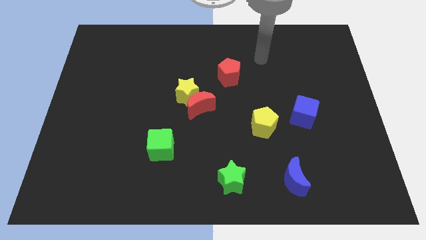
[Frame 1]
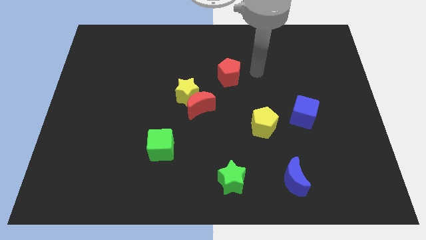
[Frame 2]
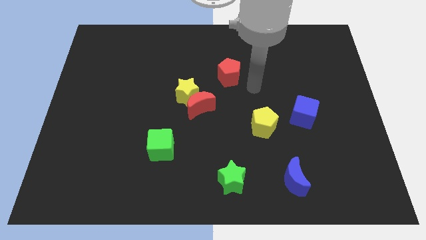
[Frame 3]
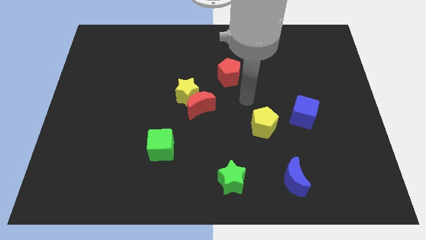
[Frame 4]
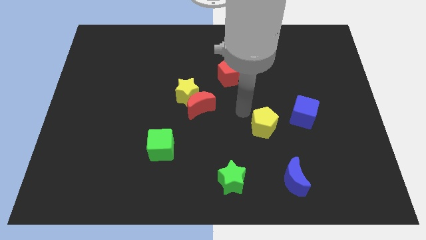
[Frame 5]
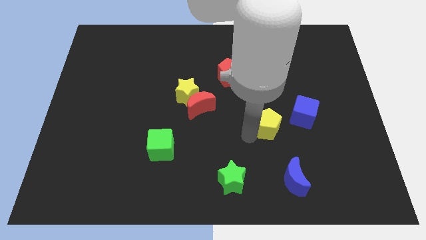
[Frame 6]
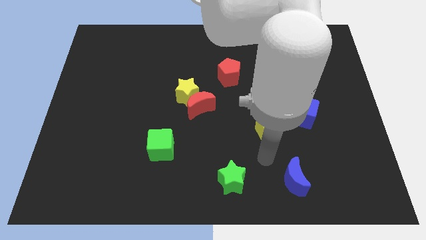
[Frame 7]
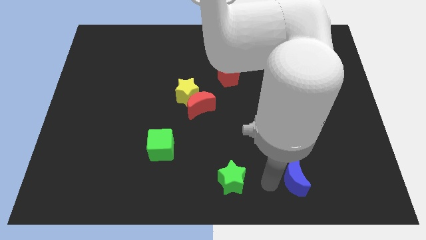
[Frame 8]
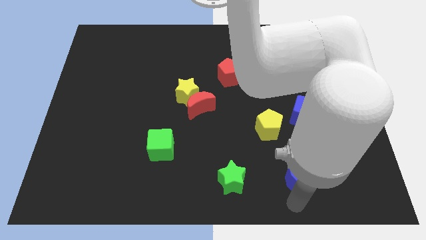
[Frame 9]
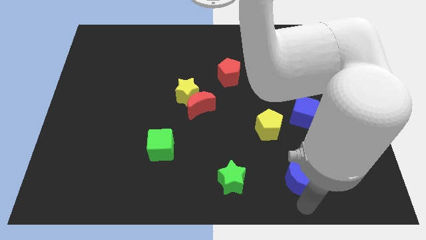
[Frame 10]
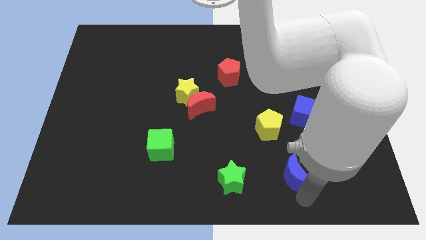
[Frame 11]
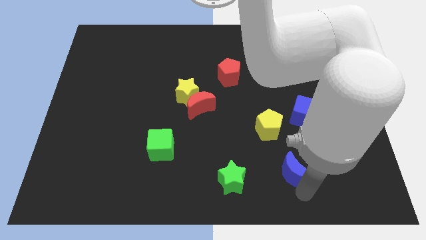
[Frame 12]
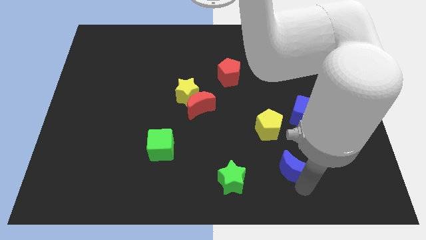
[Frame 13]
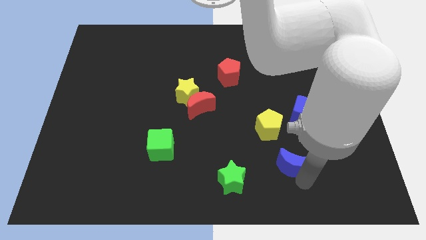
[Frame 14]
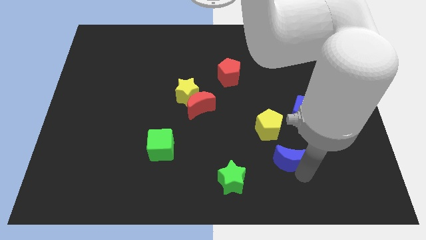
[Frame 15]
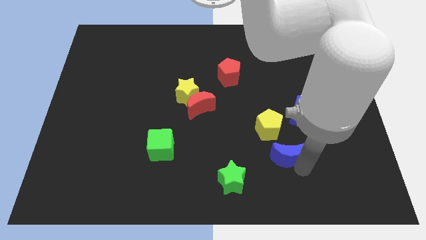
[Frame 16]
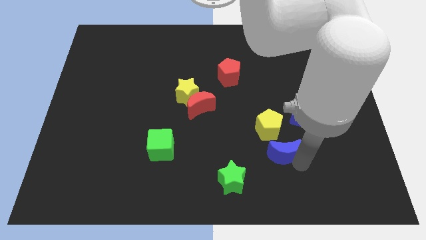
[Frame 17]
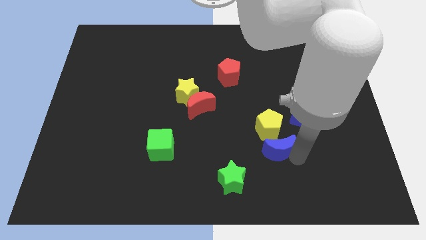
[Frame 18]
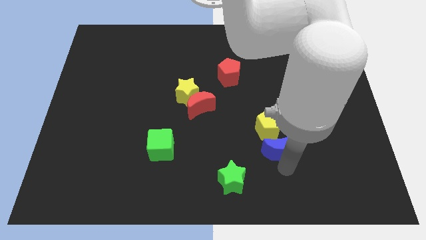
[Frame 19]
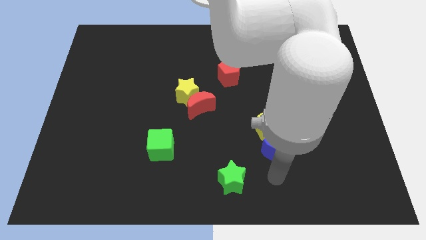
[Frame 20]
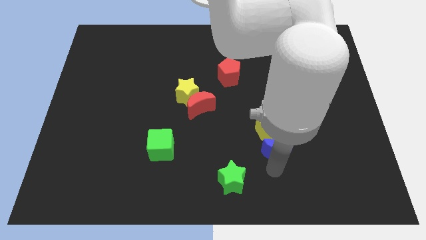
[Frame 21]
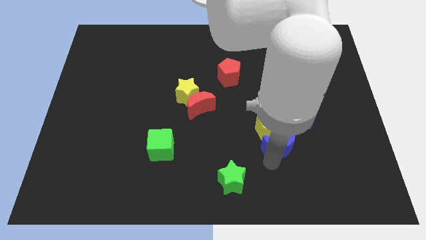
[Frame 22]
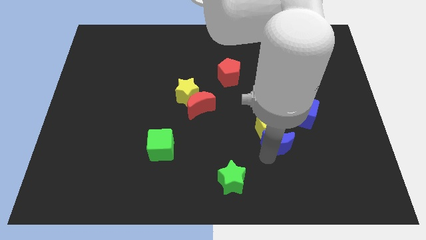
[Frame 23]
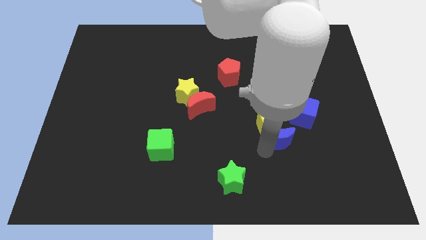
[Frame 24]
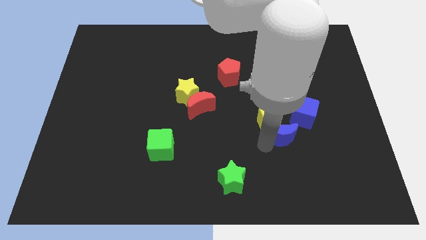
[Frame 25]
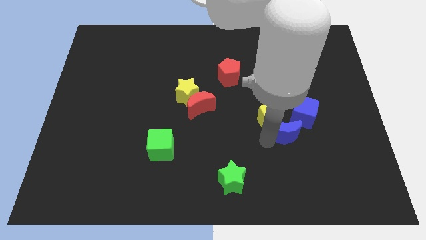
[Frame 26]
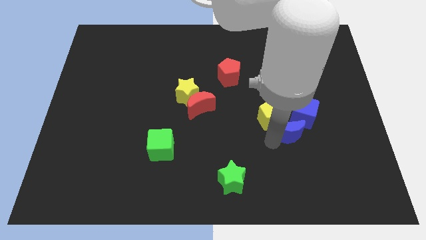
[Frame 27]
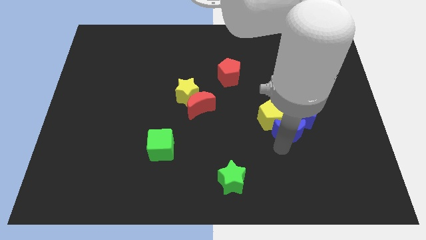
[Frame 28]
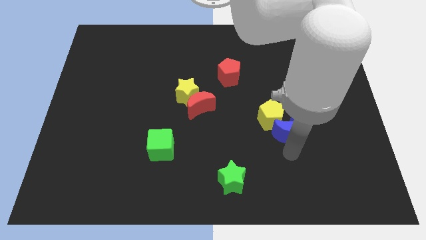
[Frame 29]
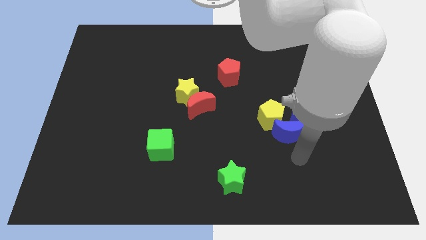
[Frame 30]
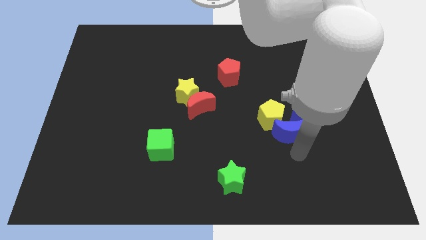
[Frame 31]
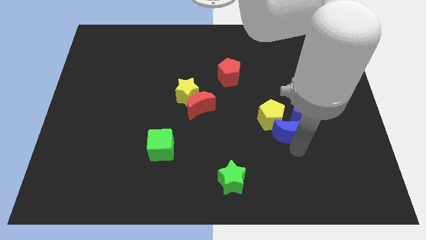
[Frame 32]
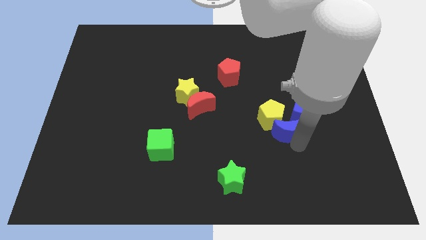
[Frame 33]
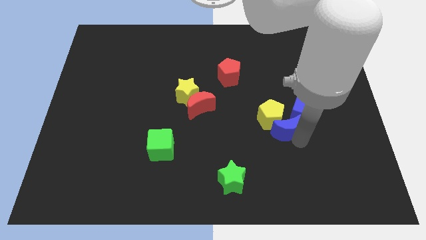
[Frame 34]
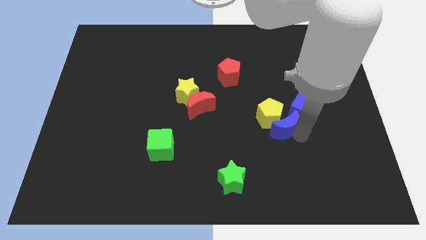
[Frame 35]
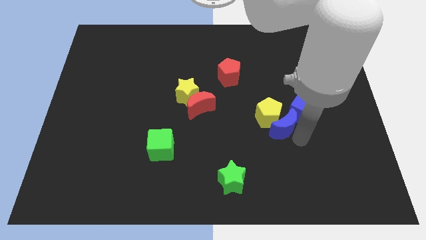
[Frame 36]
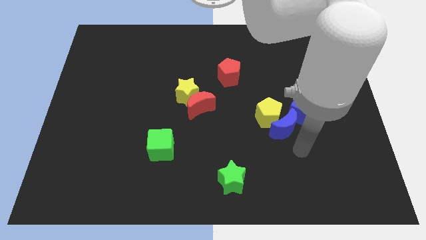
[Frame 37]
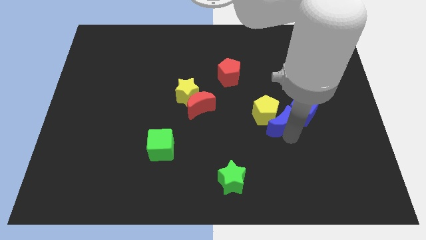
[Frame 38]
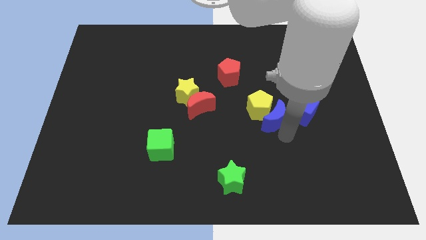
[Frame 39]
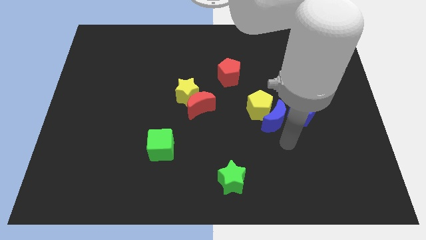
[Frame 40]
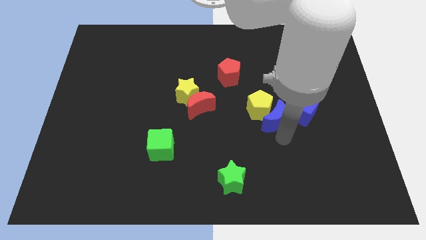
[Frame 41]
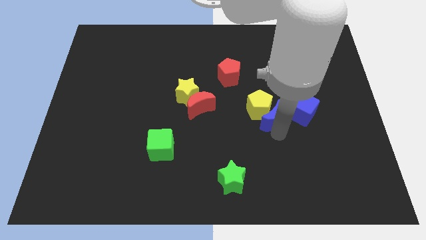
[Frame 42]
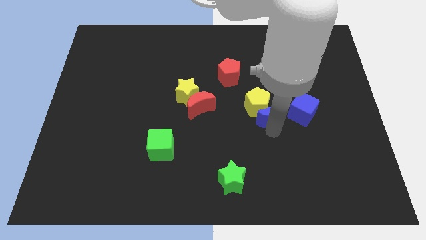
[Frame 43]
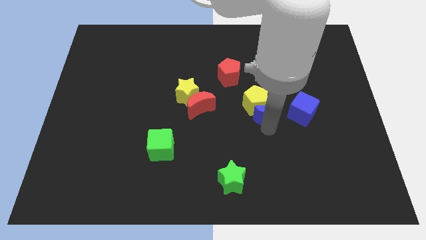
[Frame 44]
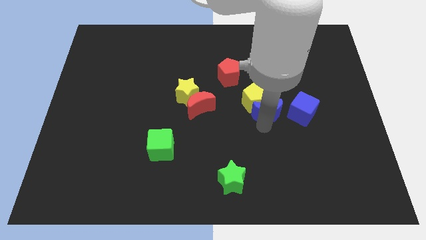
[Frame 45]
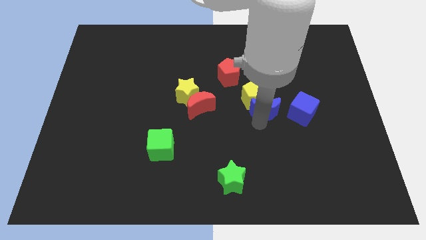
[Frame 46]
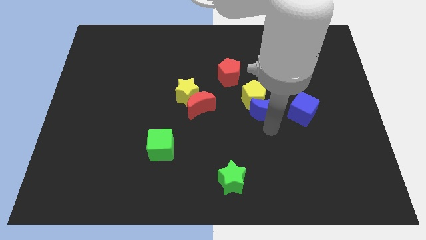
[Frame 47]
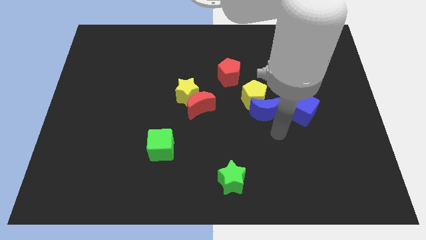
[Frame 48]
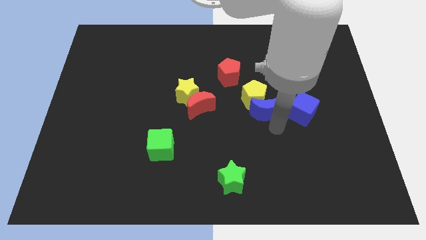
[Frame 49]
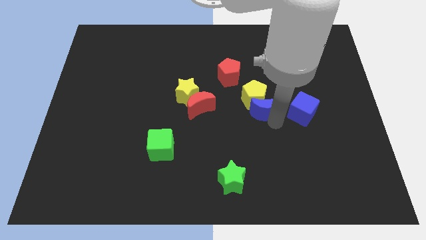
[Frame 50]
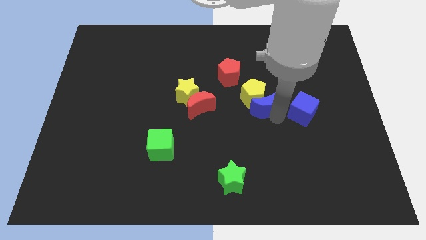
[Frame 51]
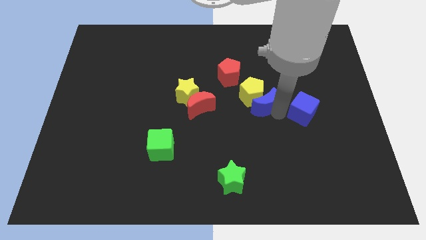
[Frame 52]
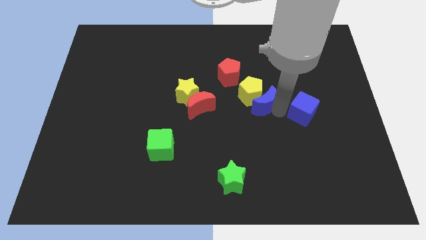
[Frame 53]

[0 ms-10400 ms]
move the blue moon diagonally down and to the right of the red pentagon

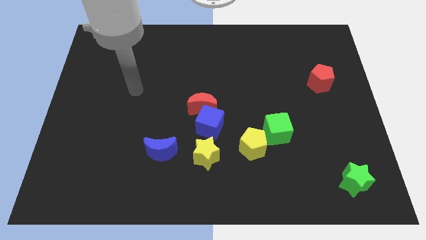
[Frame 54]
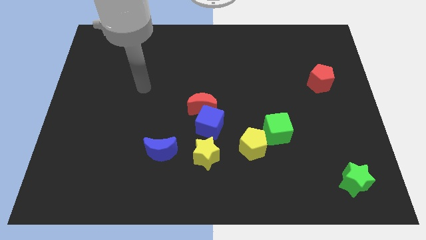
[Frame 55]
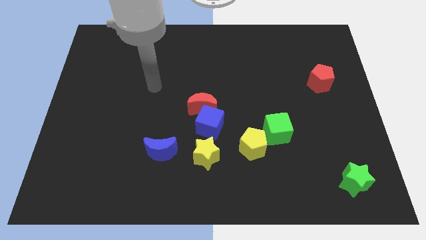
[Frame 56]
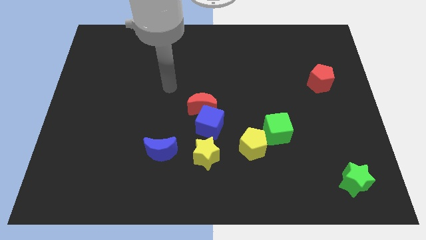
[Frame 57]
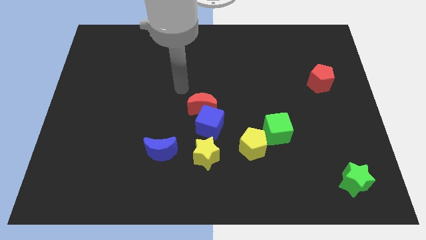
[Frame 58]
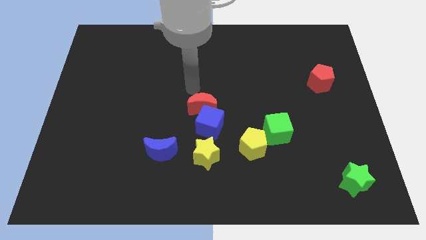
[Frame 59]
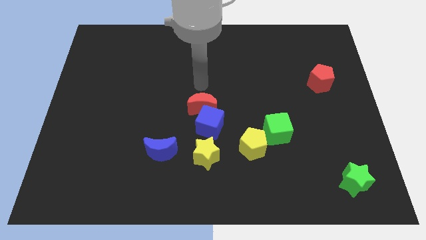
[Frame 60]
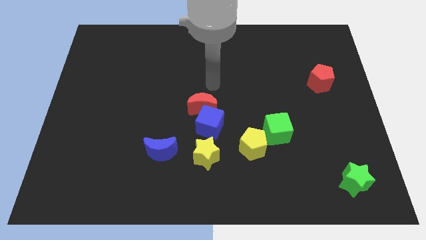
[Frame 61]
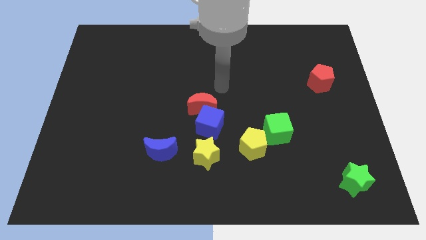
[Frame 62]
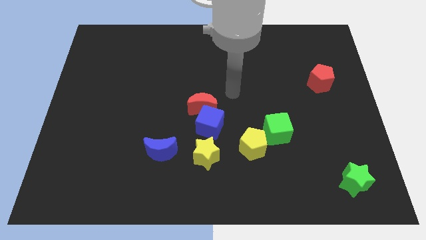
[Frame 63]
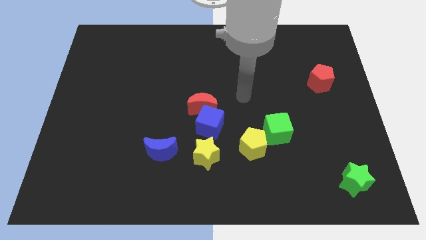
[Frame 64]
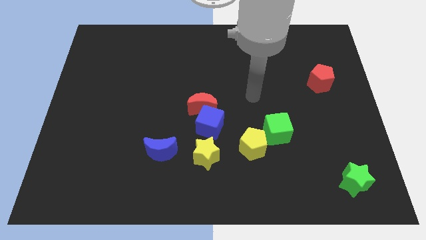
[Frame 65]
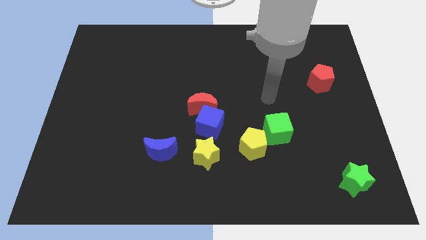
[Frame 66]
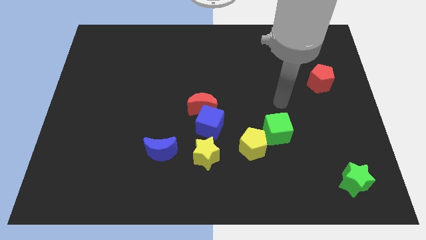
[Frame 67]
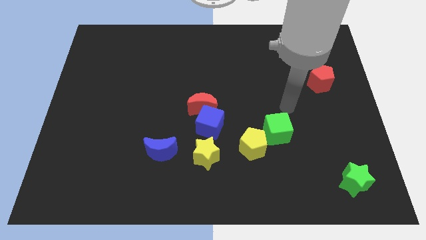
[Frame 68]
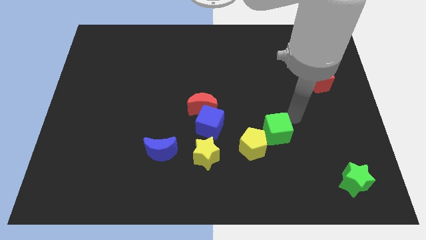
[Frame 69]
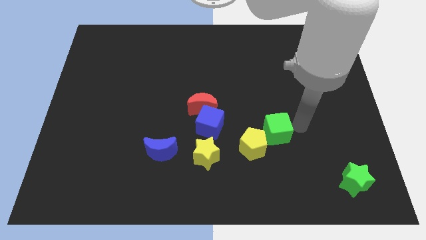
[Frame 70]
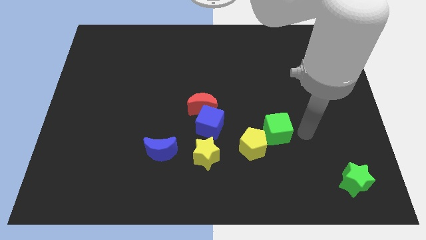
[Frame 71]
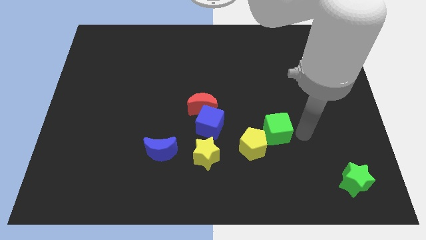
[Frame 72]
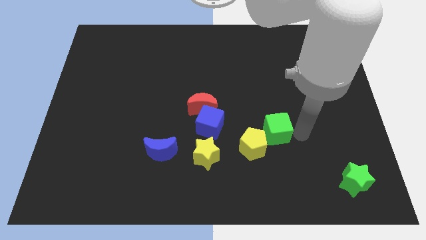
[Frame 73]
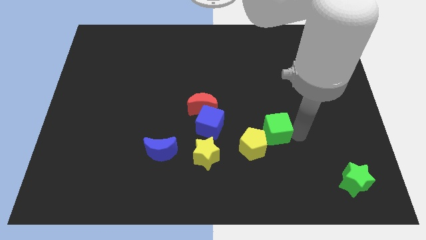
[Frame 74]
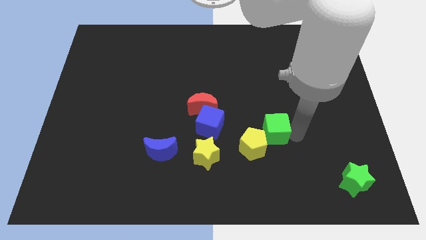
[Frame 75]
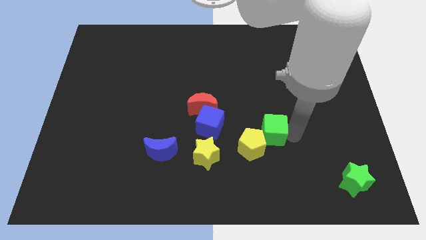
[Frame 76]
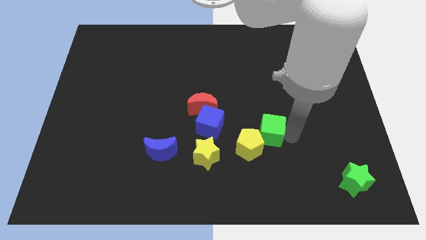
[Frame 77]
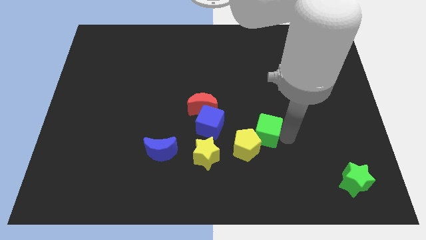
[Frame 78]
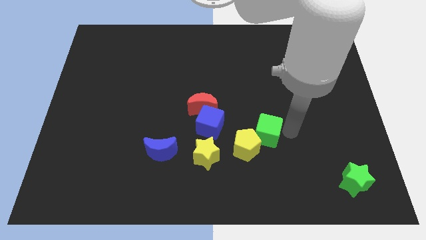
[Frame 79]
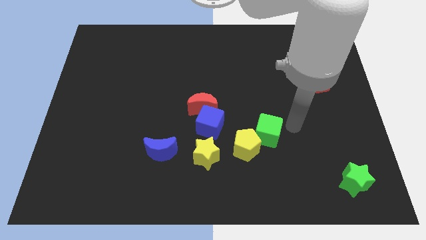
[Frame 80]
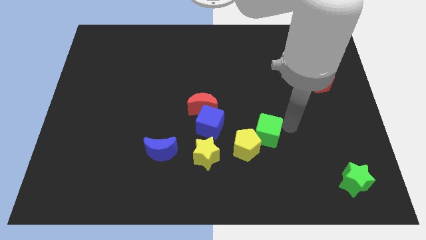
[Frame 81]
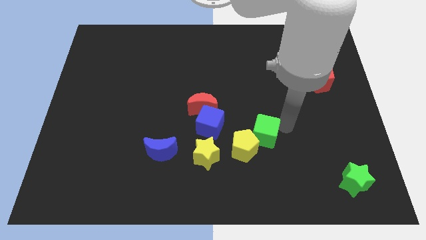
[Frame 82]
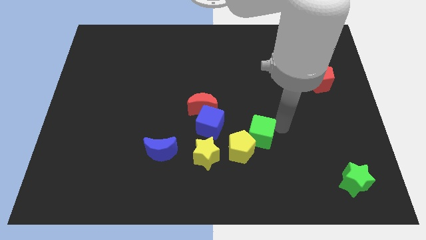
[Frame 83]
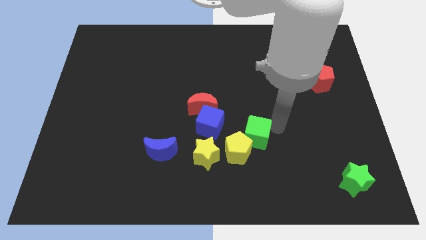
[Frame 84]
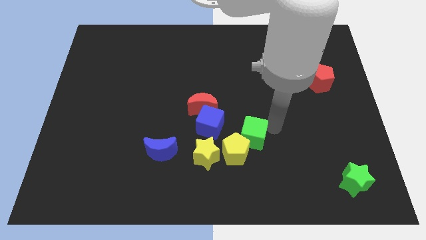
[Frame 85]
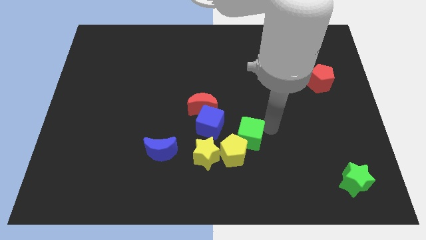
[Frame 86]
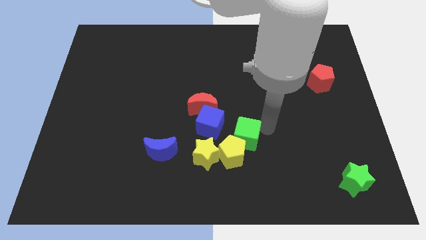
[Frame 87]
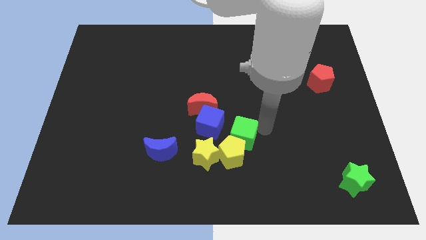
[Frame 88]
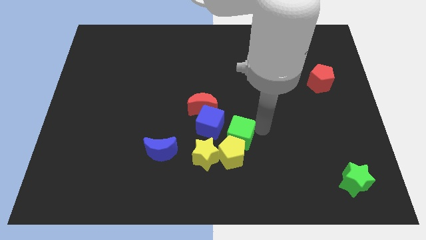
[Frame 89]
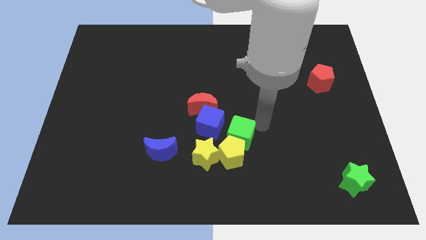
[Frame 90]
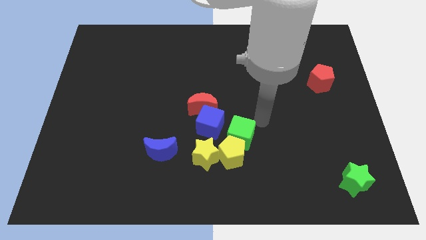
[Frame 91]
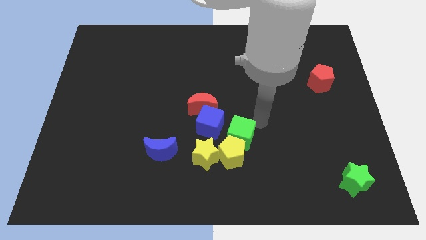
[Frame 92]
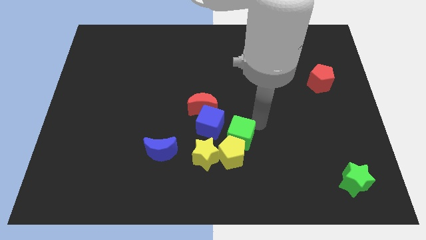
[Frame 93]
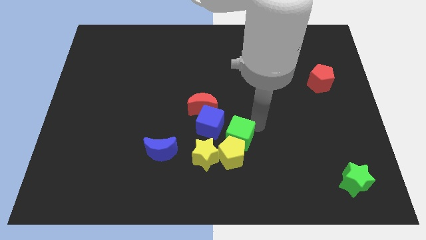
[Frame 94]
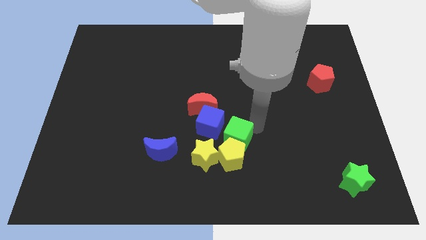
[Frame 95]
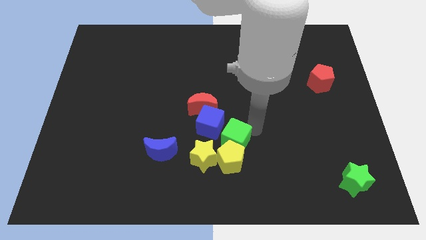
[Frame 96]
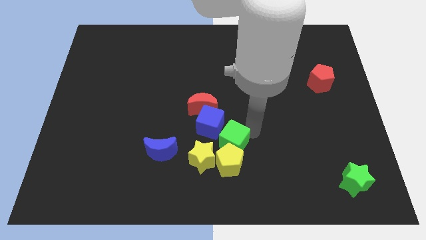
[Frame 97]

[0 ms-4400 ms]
push the green cube to the right side of the blue moon
